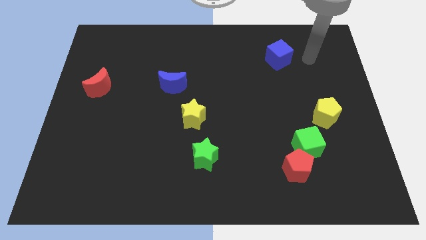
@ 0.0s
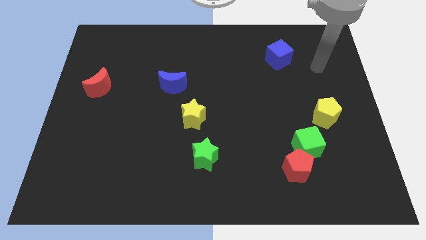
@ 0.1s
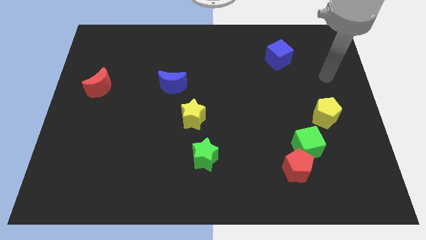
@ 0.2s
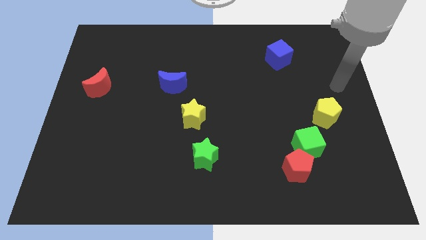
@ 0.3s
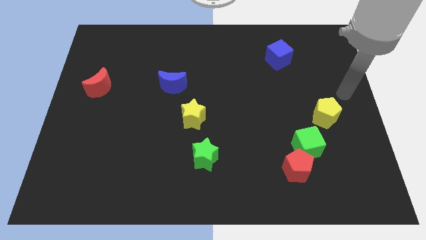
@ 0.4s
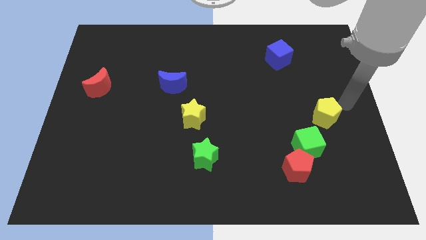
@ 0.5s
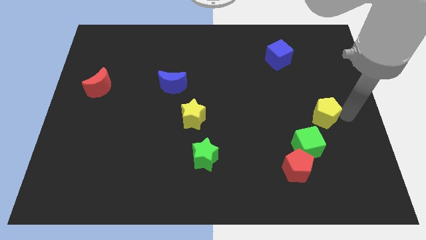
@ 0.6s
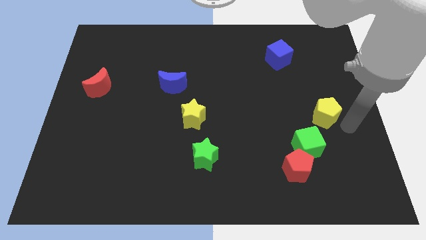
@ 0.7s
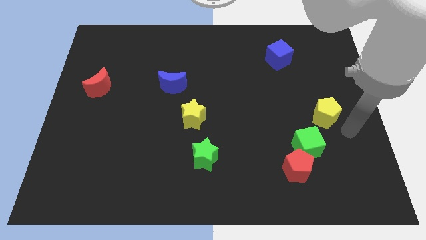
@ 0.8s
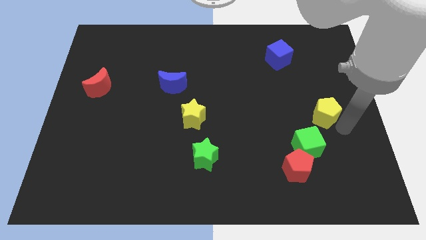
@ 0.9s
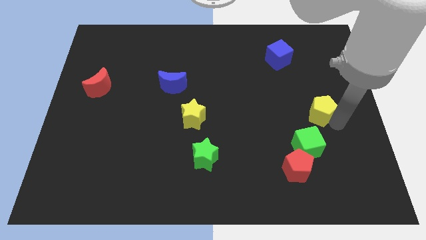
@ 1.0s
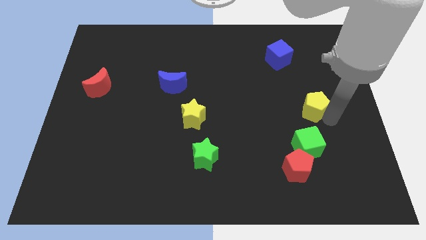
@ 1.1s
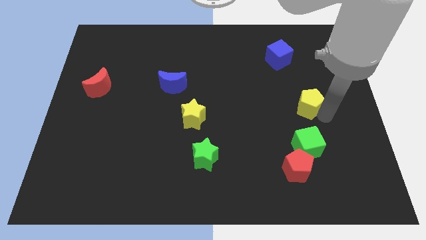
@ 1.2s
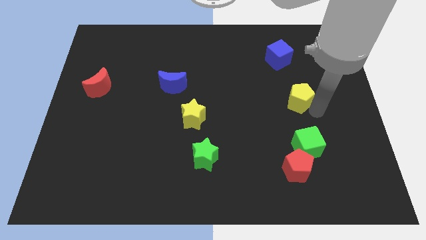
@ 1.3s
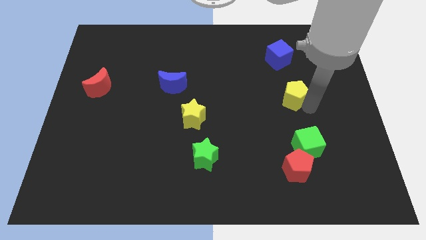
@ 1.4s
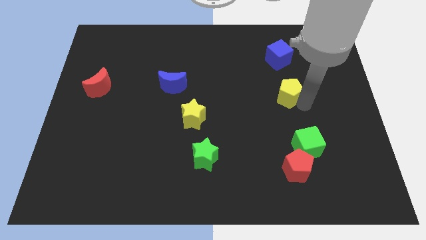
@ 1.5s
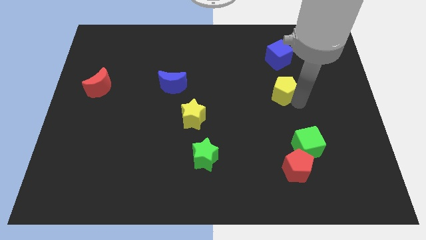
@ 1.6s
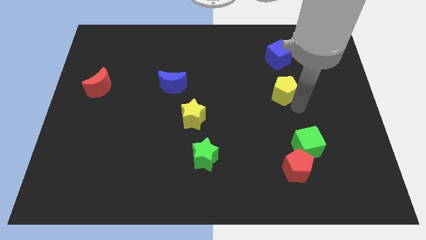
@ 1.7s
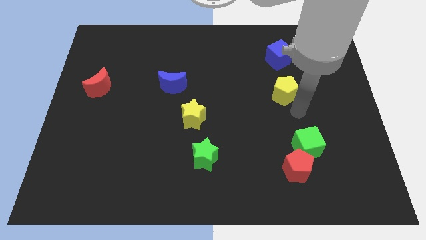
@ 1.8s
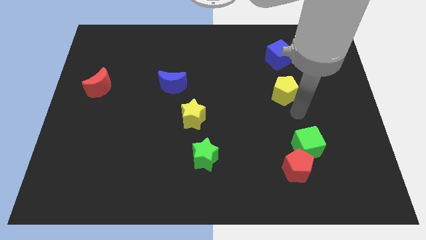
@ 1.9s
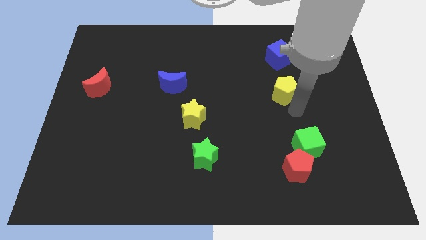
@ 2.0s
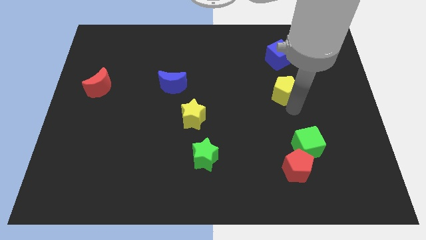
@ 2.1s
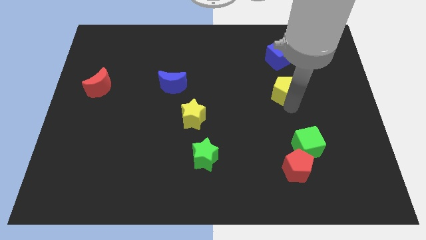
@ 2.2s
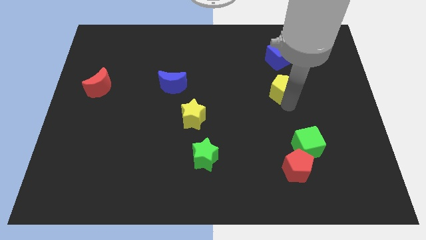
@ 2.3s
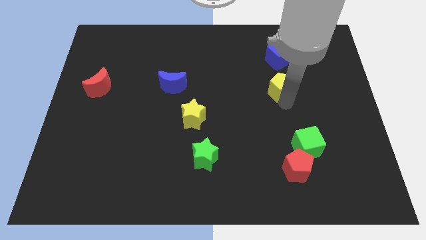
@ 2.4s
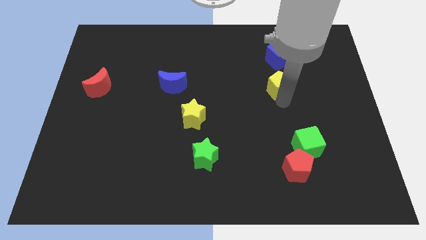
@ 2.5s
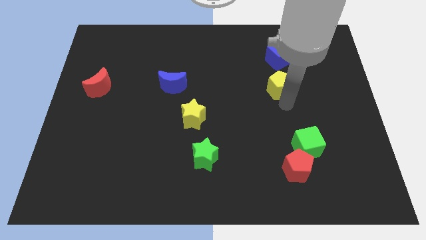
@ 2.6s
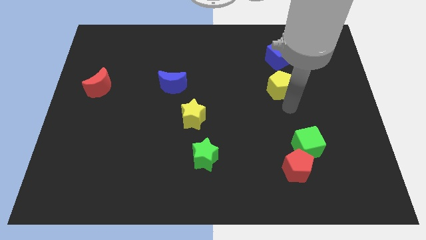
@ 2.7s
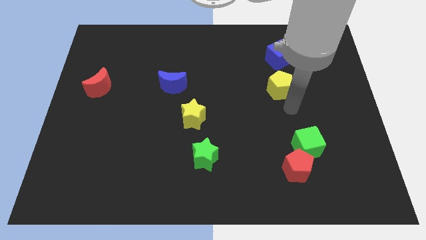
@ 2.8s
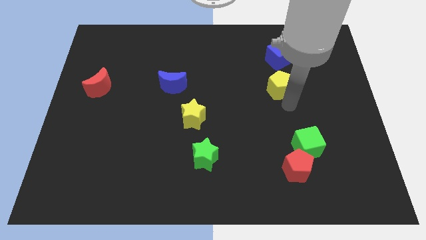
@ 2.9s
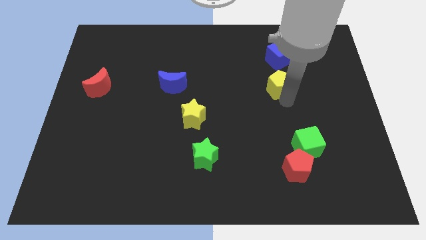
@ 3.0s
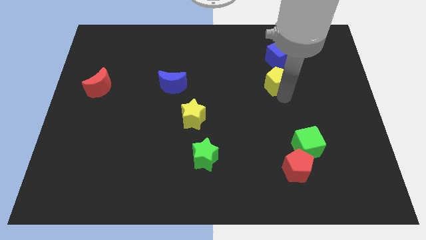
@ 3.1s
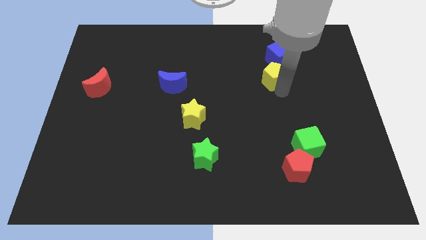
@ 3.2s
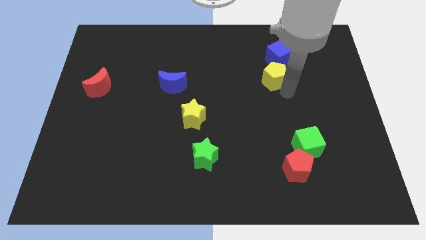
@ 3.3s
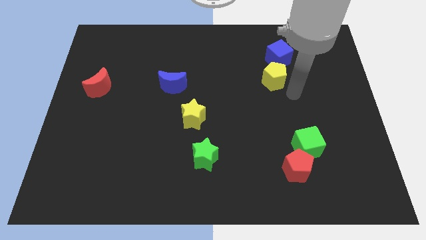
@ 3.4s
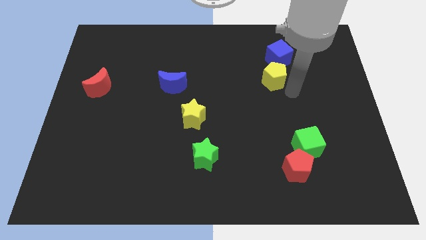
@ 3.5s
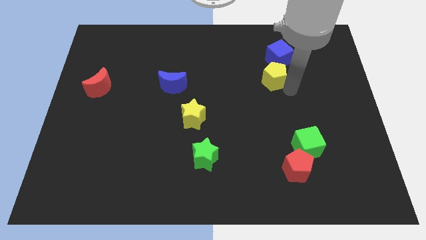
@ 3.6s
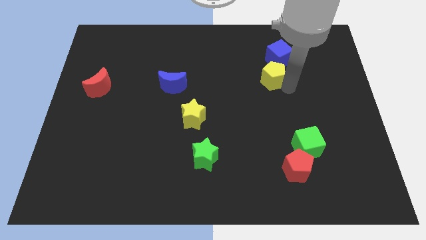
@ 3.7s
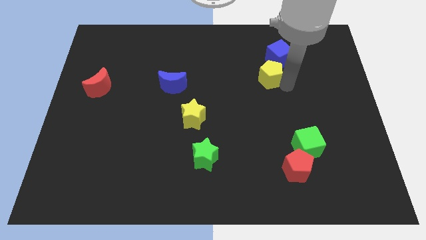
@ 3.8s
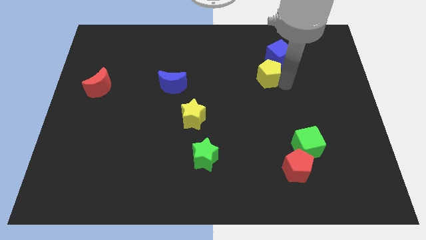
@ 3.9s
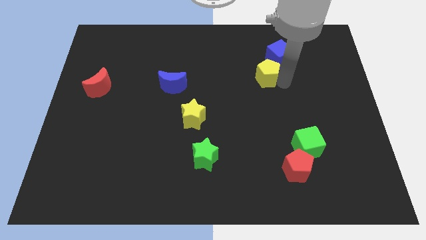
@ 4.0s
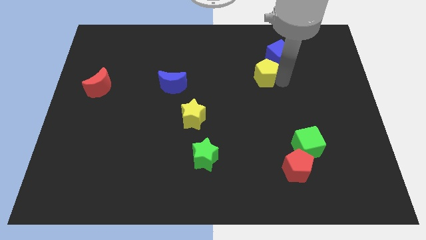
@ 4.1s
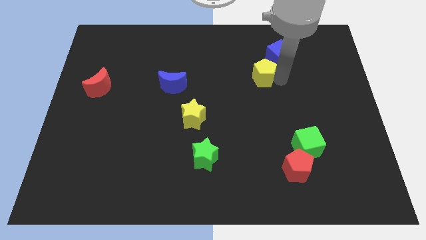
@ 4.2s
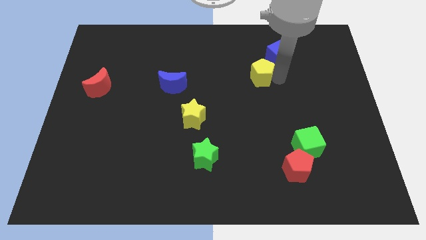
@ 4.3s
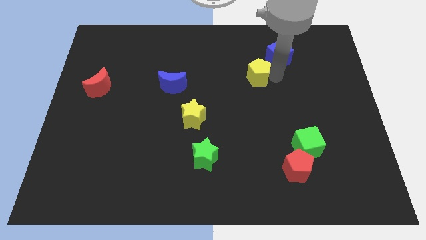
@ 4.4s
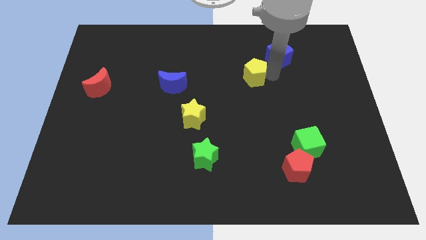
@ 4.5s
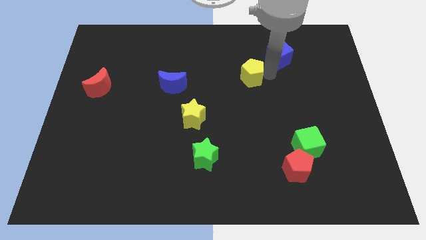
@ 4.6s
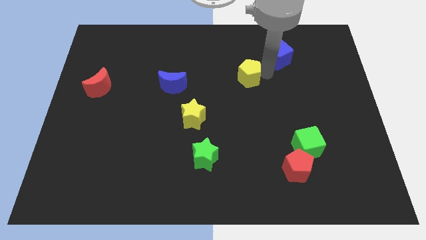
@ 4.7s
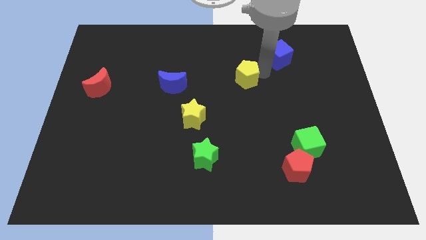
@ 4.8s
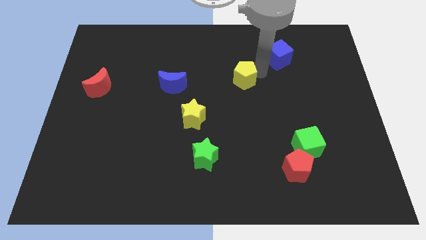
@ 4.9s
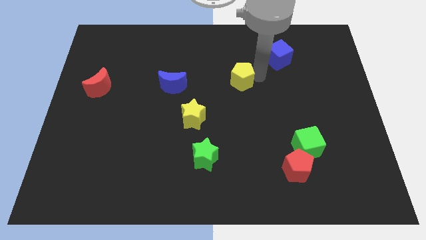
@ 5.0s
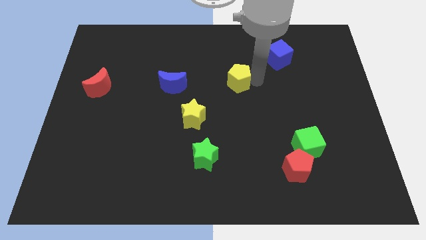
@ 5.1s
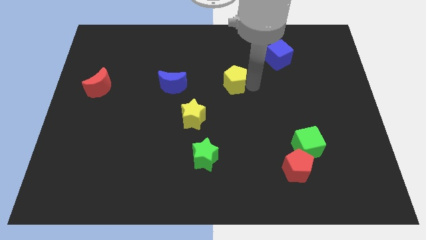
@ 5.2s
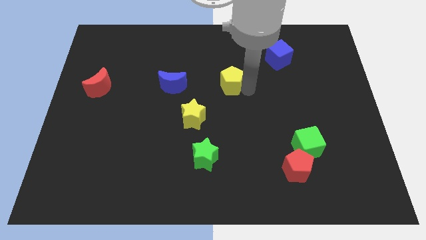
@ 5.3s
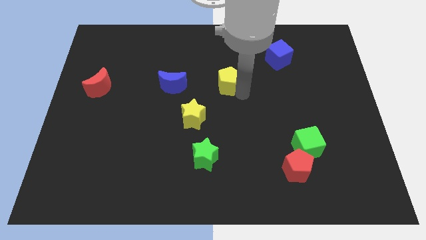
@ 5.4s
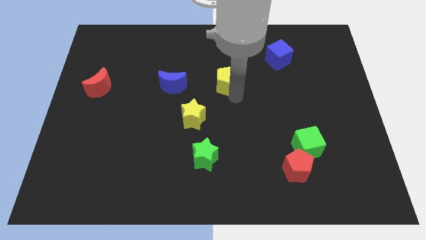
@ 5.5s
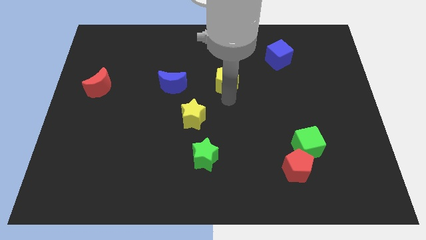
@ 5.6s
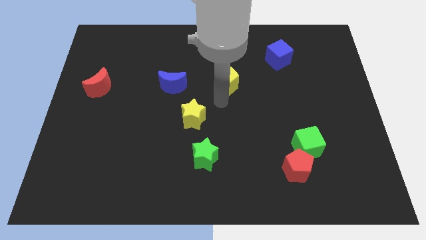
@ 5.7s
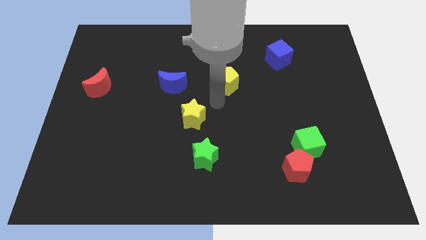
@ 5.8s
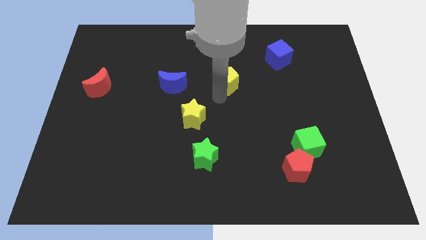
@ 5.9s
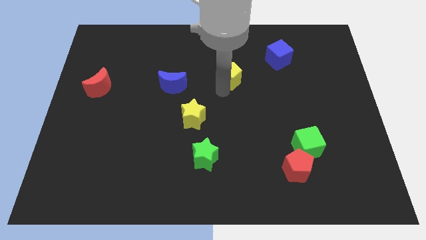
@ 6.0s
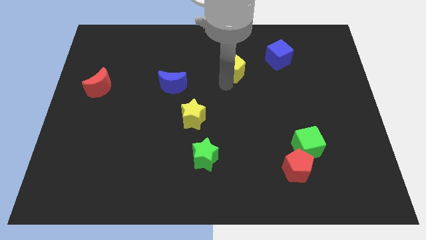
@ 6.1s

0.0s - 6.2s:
slide the yellow pentagon to the left side of the blue cube
